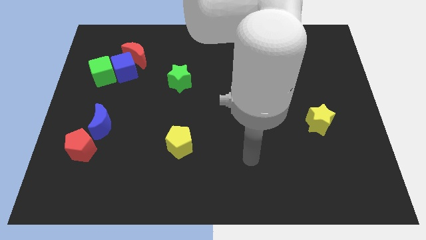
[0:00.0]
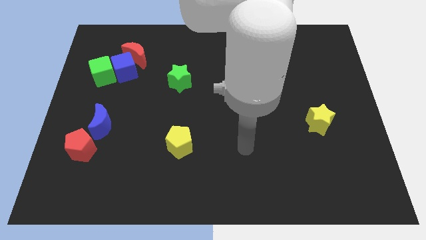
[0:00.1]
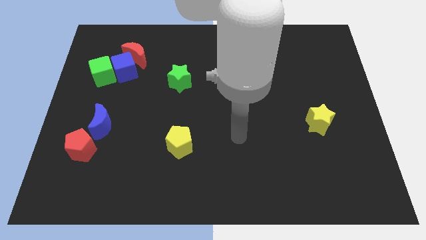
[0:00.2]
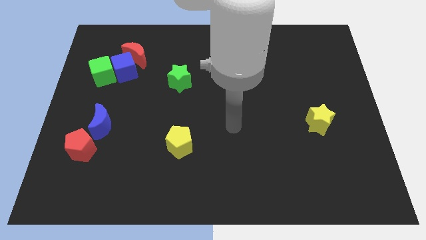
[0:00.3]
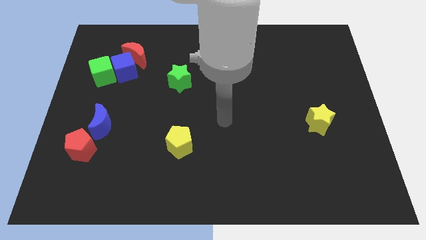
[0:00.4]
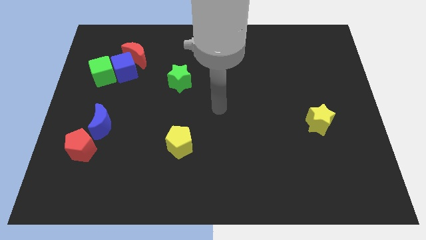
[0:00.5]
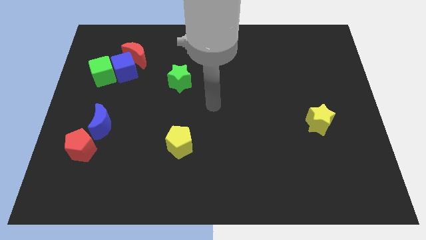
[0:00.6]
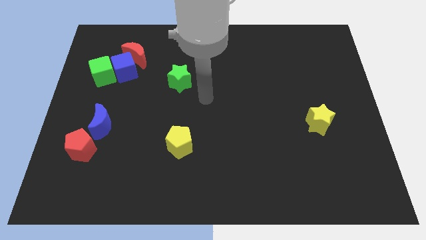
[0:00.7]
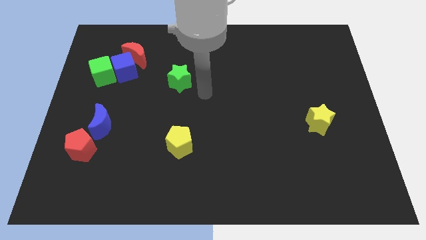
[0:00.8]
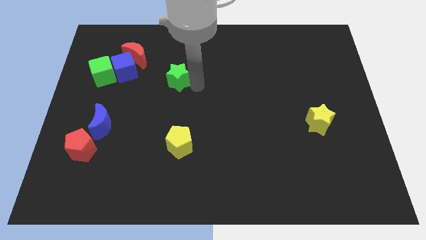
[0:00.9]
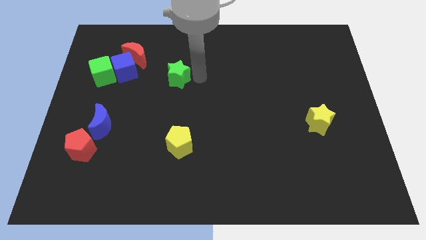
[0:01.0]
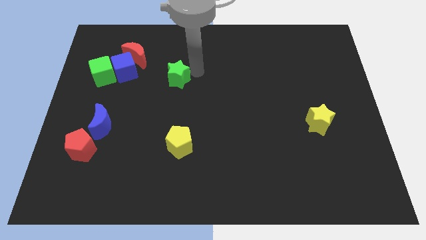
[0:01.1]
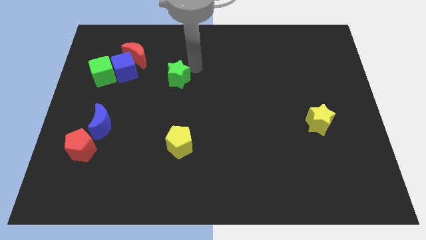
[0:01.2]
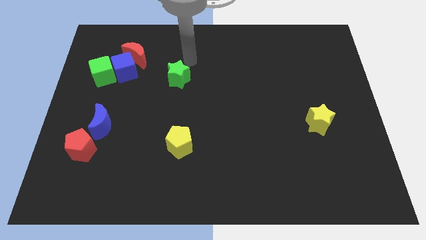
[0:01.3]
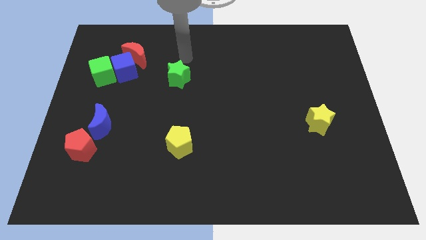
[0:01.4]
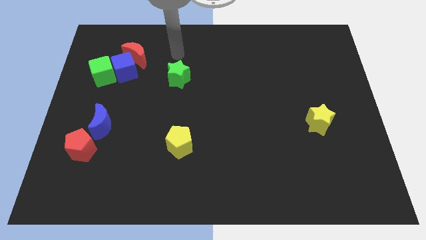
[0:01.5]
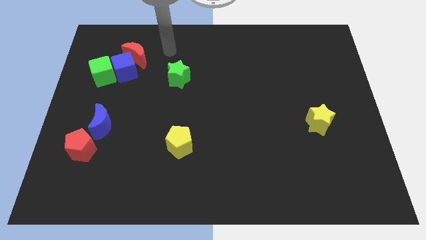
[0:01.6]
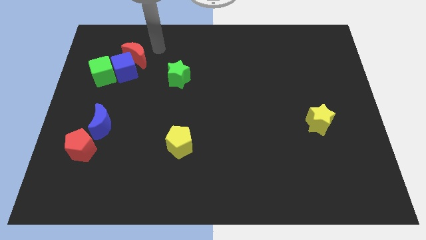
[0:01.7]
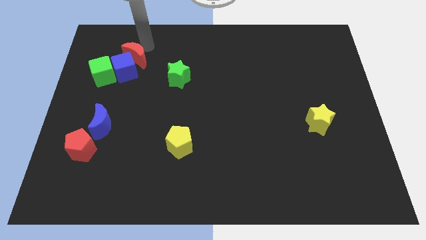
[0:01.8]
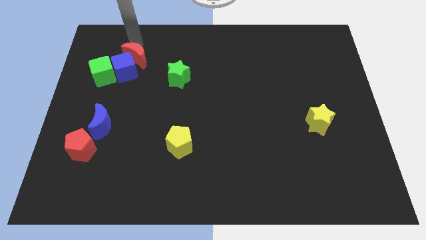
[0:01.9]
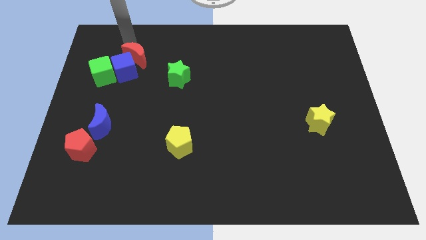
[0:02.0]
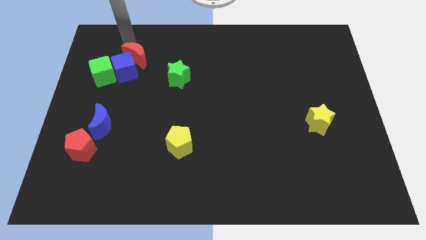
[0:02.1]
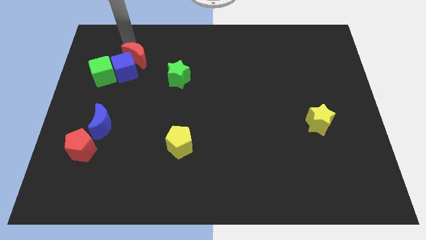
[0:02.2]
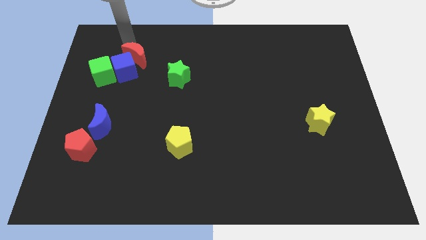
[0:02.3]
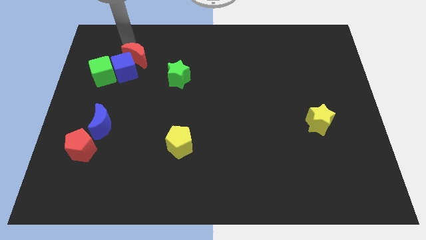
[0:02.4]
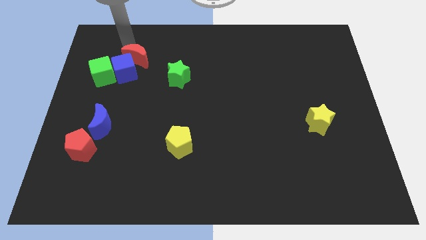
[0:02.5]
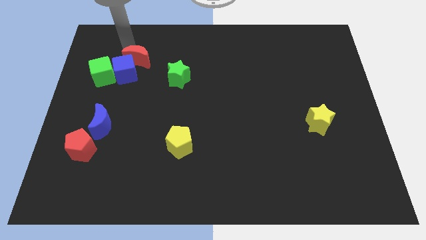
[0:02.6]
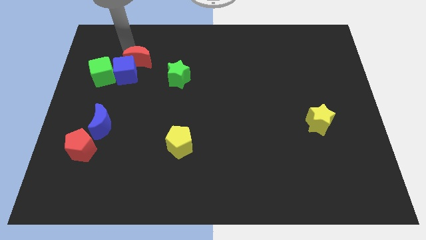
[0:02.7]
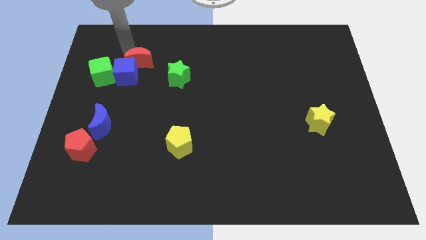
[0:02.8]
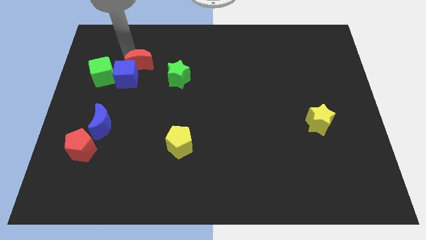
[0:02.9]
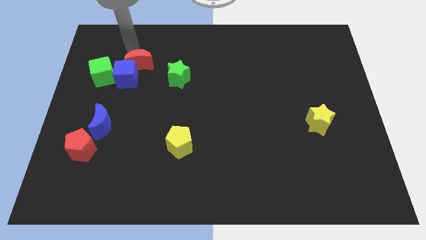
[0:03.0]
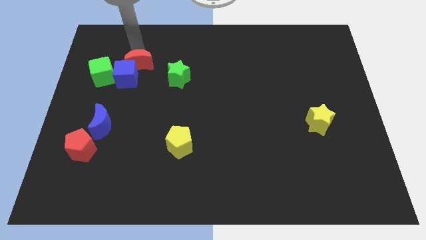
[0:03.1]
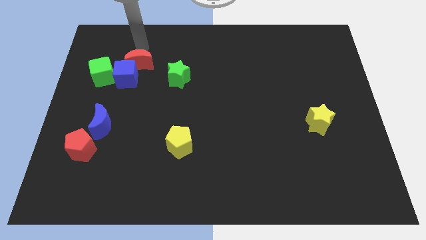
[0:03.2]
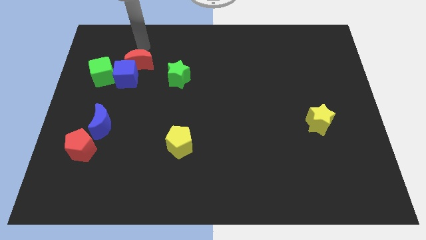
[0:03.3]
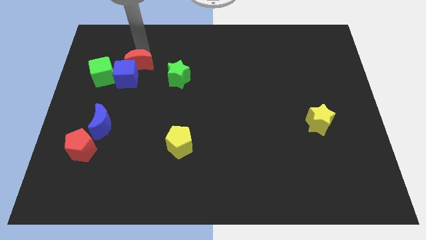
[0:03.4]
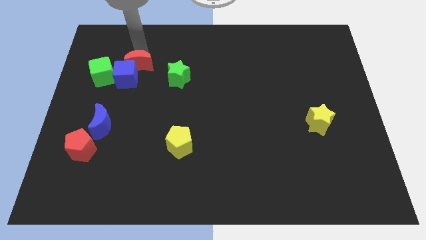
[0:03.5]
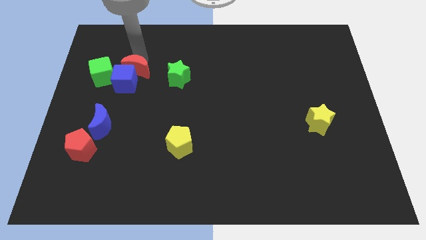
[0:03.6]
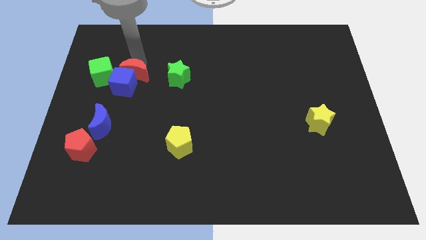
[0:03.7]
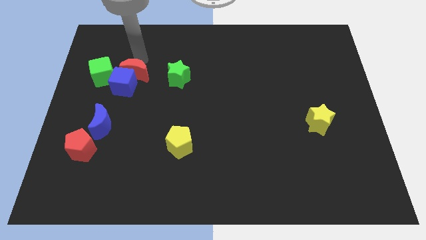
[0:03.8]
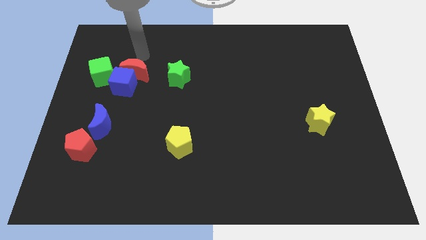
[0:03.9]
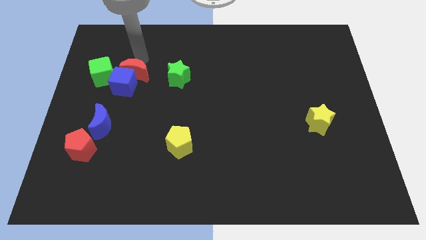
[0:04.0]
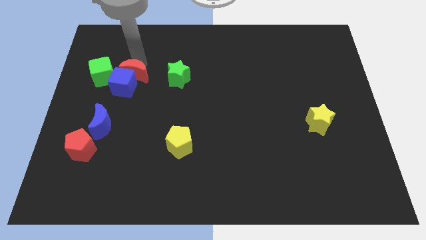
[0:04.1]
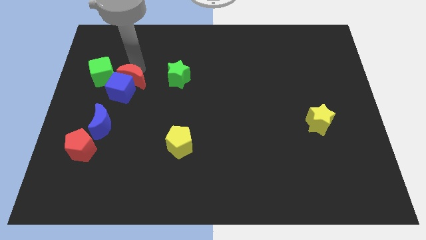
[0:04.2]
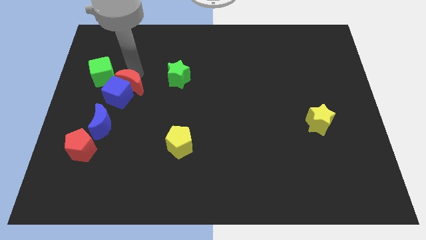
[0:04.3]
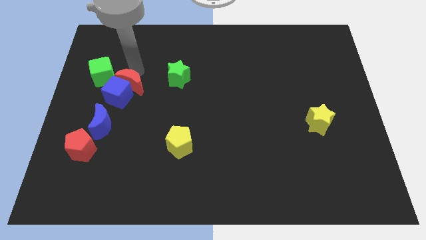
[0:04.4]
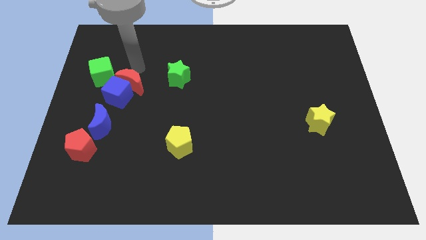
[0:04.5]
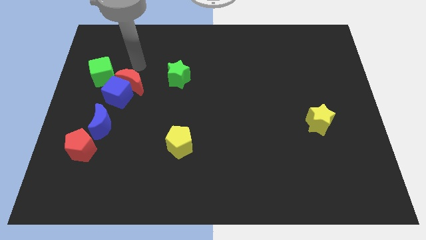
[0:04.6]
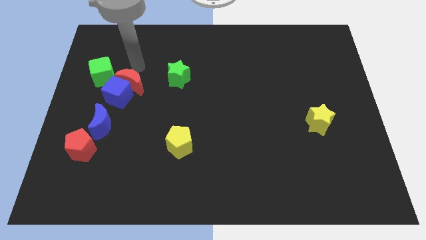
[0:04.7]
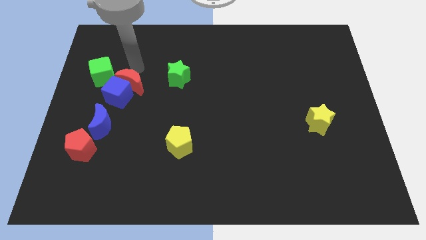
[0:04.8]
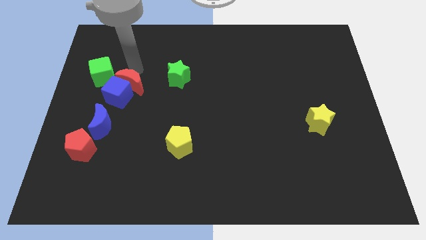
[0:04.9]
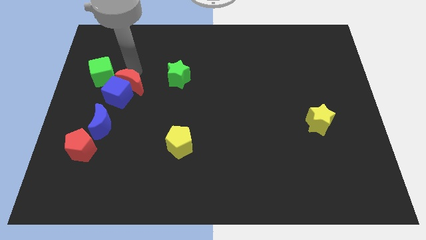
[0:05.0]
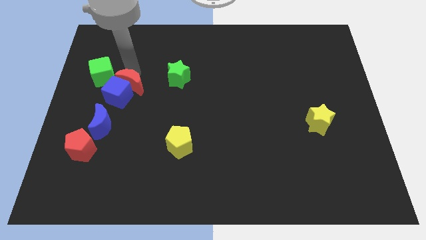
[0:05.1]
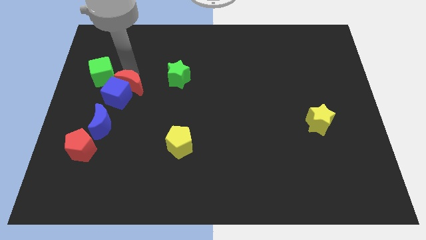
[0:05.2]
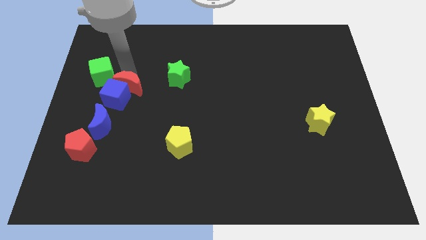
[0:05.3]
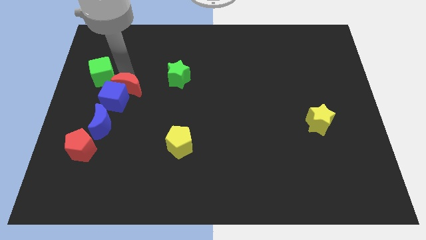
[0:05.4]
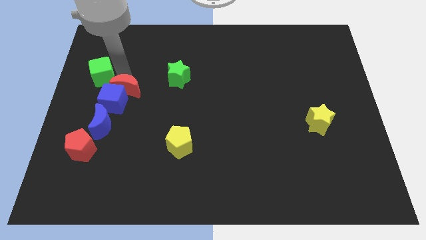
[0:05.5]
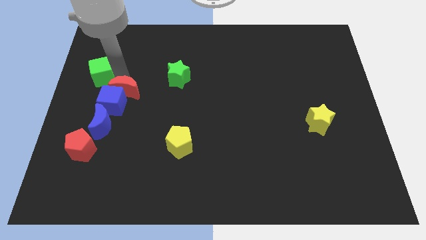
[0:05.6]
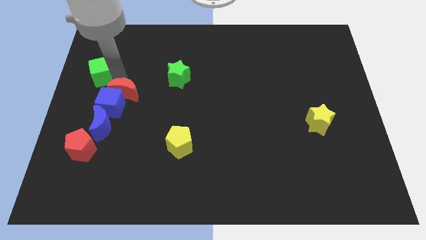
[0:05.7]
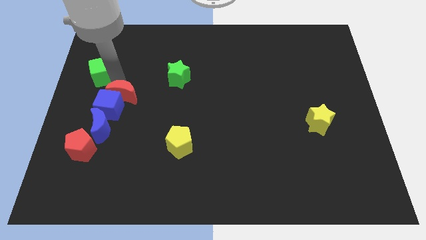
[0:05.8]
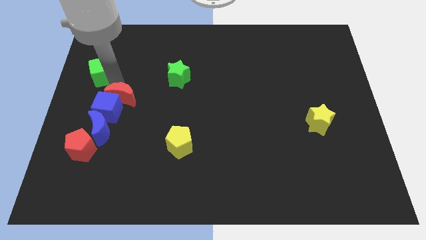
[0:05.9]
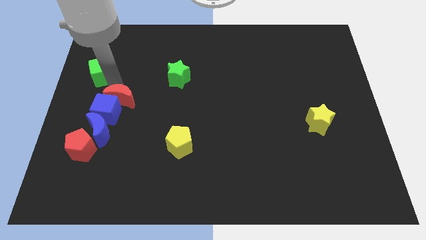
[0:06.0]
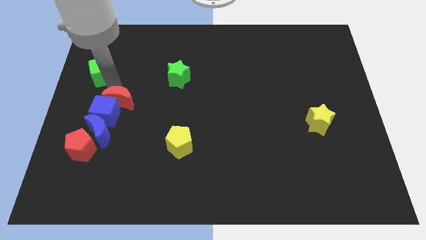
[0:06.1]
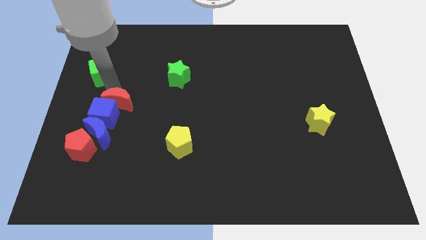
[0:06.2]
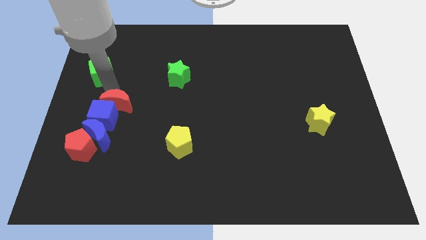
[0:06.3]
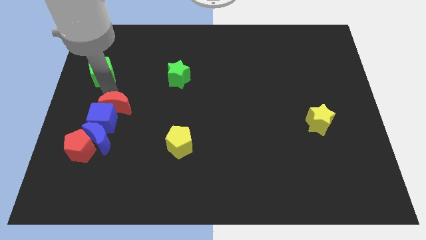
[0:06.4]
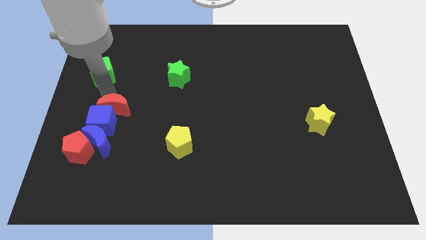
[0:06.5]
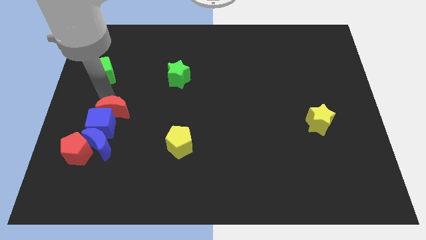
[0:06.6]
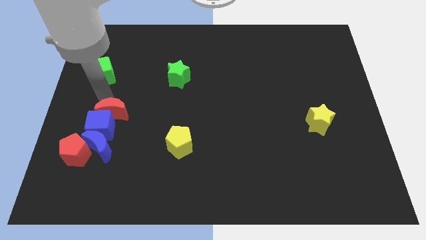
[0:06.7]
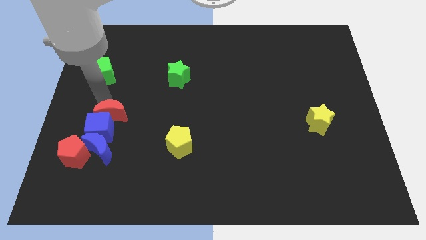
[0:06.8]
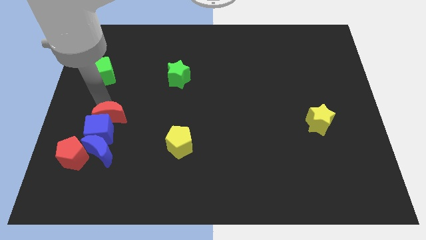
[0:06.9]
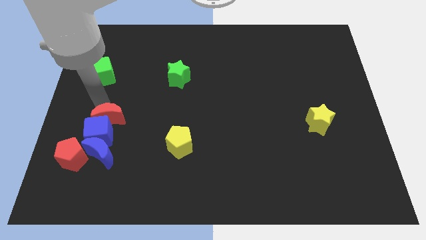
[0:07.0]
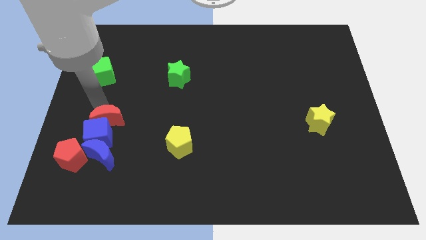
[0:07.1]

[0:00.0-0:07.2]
slide the red moon down

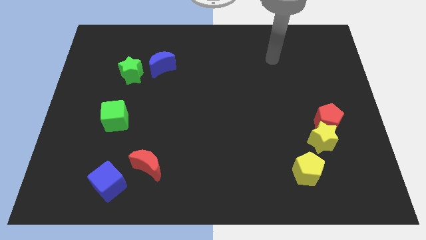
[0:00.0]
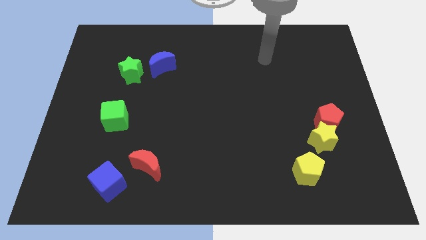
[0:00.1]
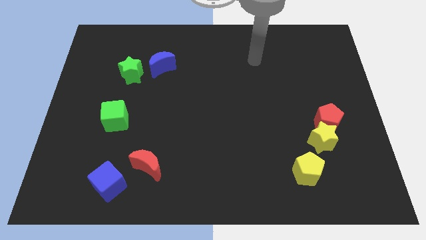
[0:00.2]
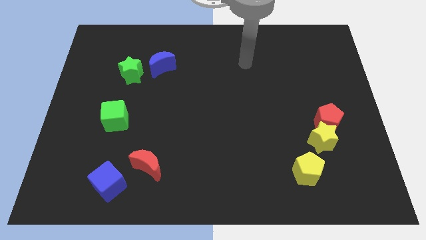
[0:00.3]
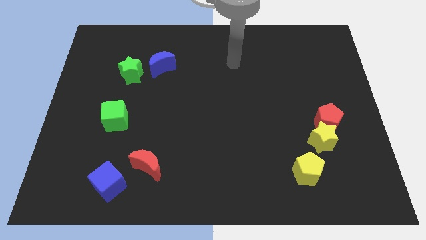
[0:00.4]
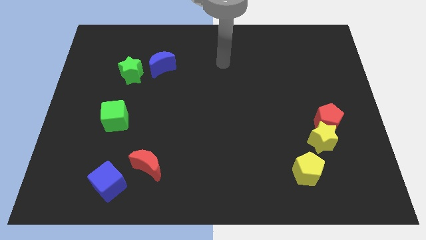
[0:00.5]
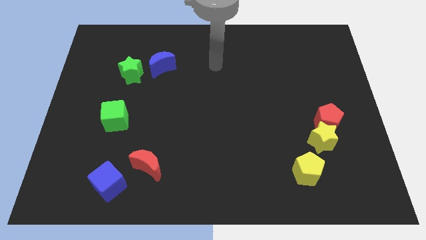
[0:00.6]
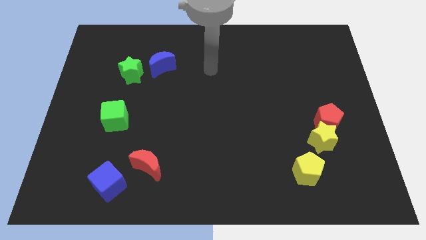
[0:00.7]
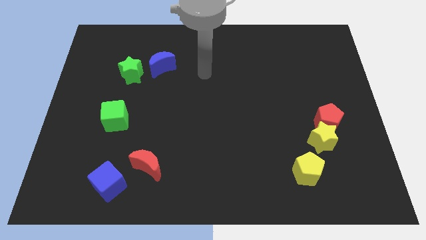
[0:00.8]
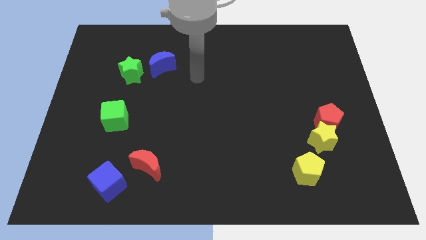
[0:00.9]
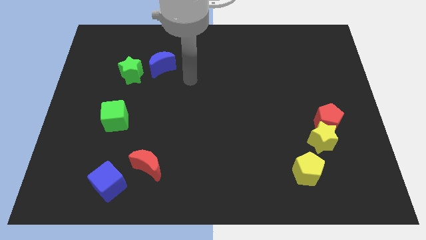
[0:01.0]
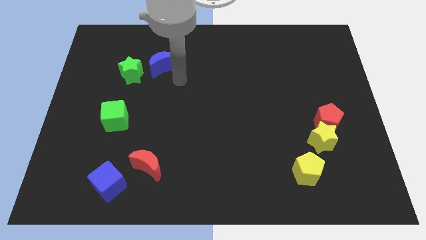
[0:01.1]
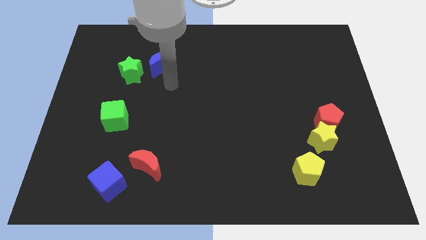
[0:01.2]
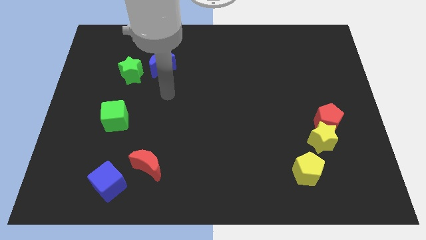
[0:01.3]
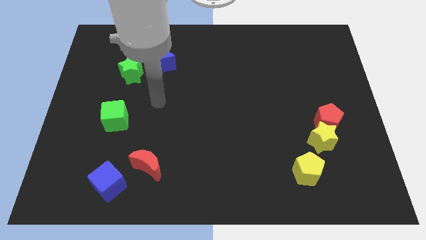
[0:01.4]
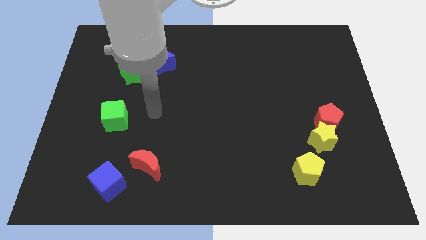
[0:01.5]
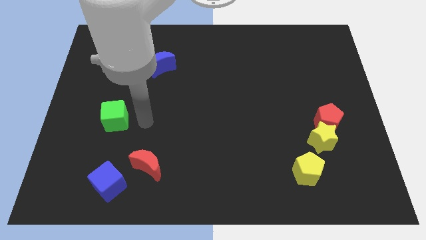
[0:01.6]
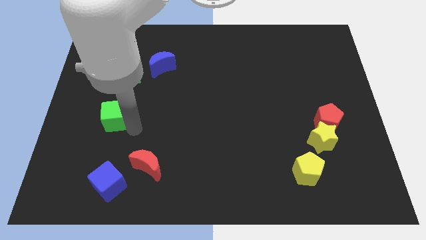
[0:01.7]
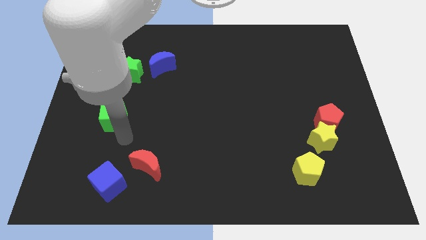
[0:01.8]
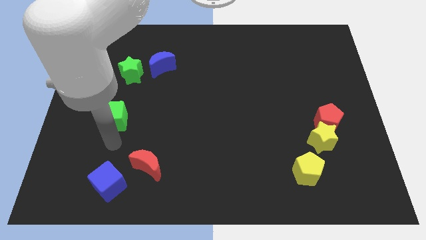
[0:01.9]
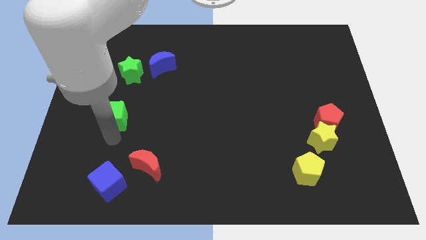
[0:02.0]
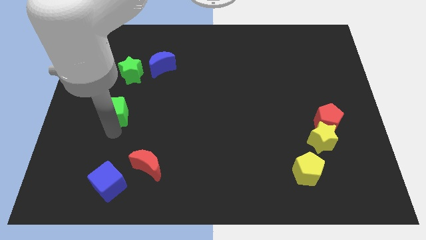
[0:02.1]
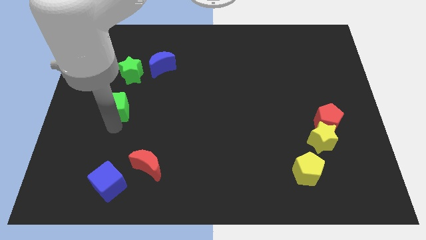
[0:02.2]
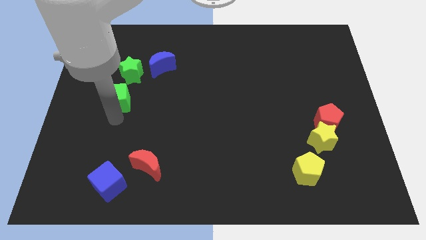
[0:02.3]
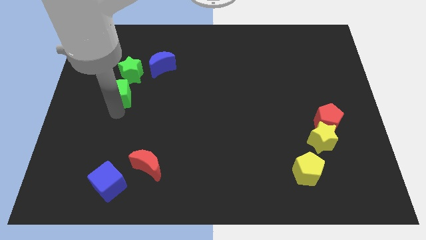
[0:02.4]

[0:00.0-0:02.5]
push the green cube slightly up
